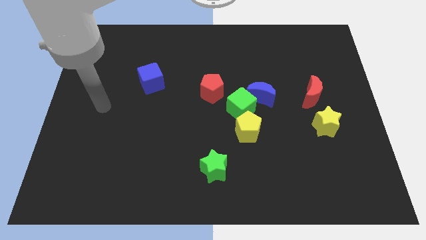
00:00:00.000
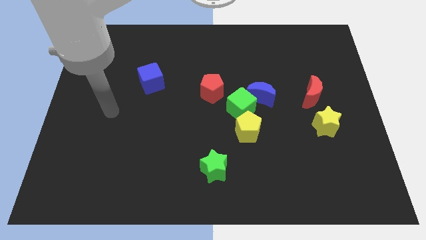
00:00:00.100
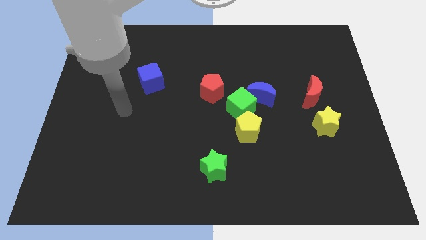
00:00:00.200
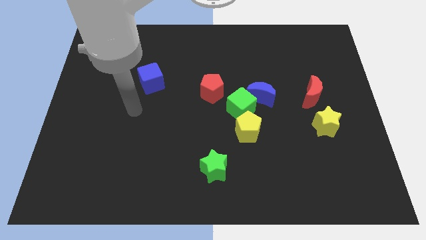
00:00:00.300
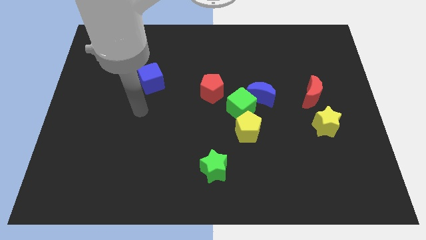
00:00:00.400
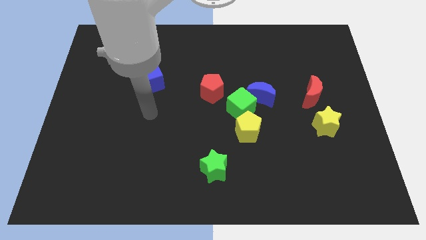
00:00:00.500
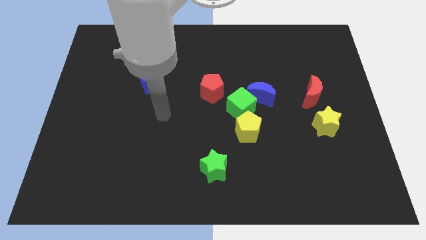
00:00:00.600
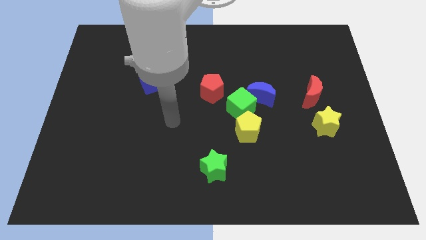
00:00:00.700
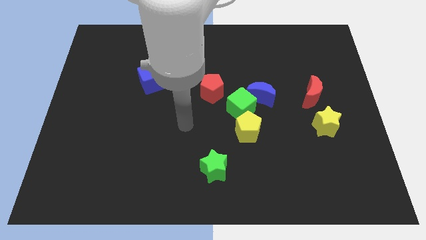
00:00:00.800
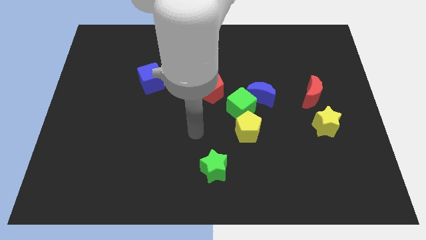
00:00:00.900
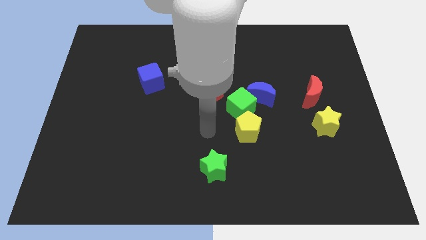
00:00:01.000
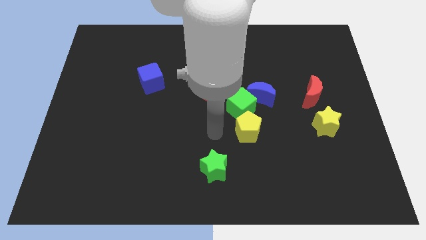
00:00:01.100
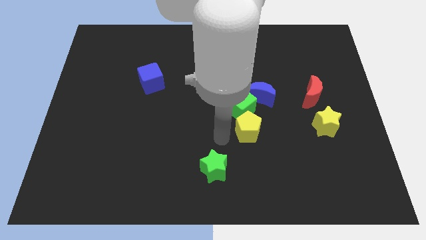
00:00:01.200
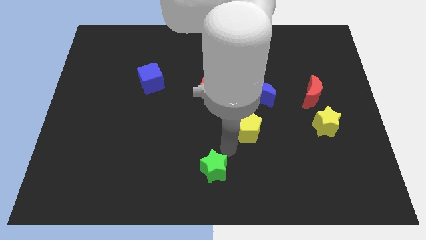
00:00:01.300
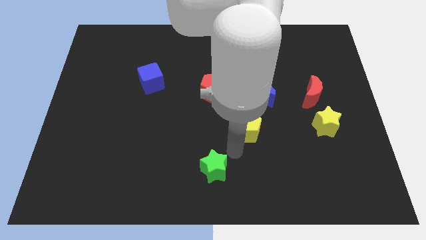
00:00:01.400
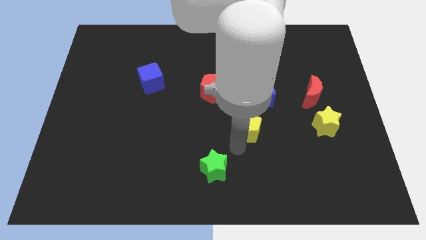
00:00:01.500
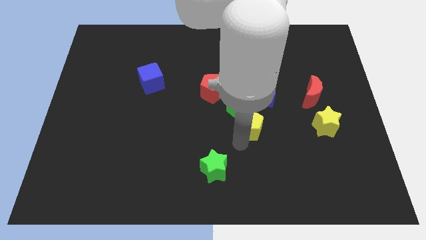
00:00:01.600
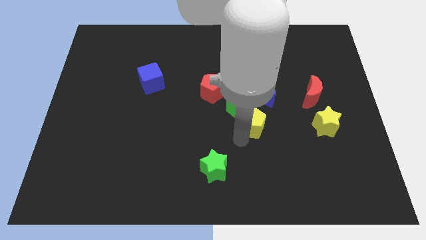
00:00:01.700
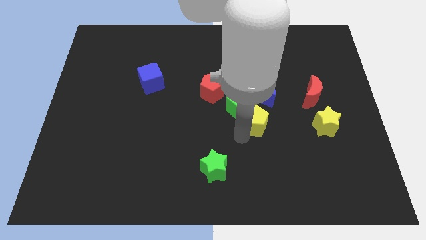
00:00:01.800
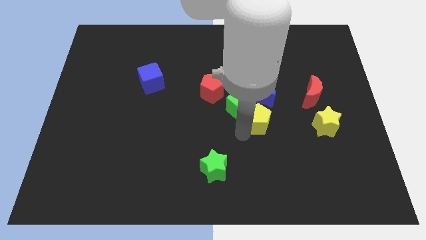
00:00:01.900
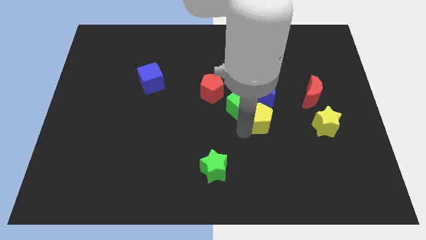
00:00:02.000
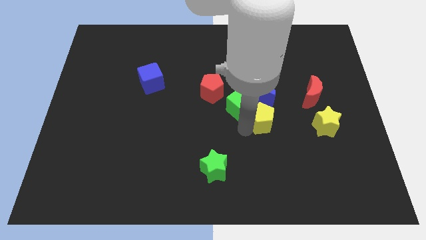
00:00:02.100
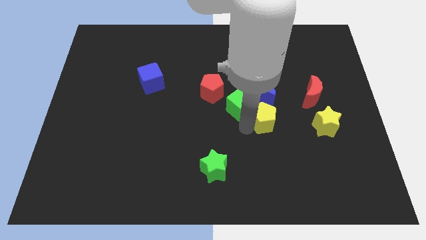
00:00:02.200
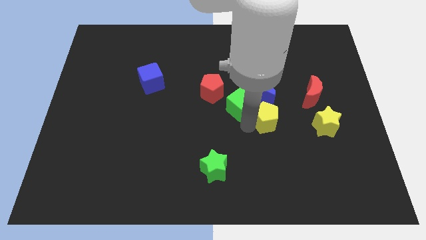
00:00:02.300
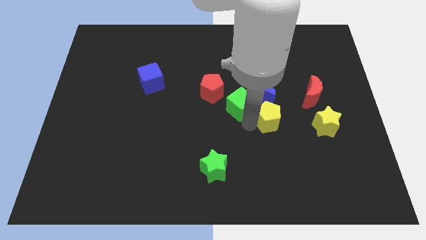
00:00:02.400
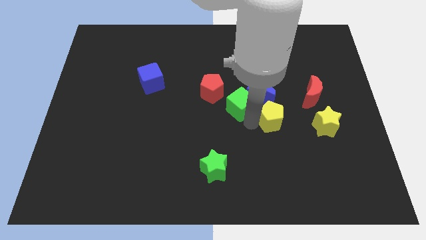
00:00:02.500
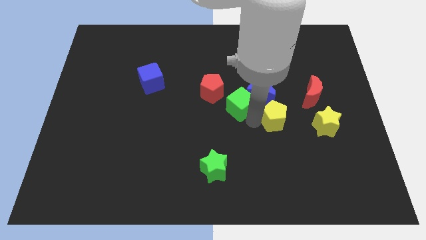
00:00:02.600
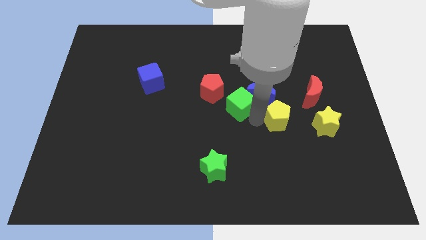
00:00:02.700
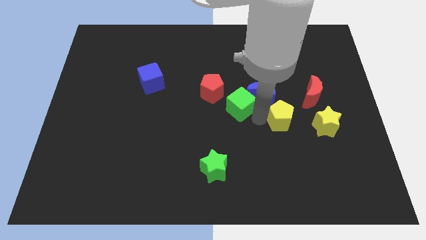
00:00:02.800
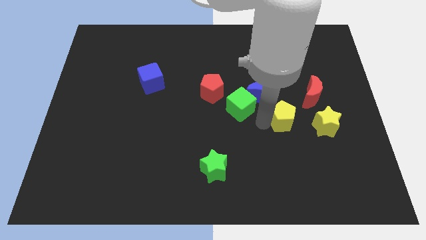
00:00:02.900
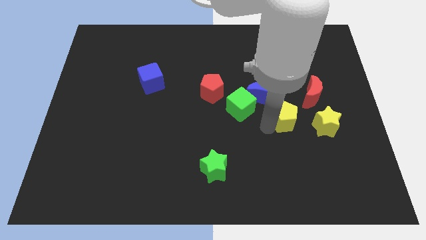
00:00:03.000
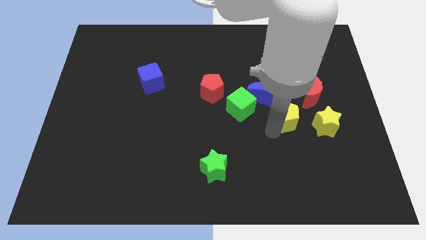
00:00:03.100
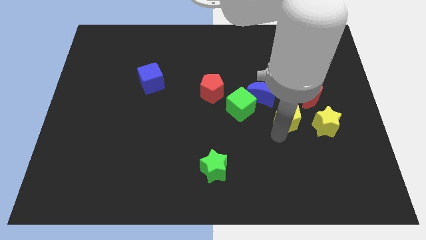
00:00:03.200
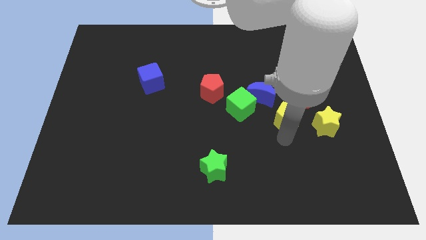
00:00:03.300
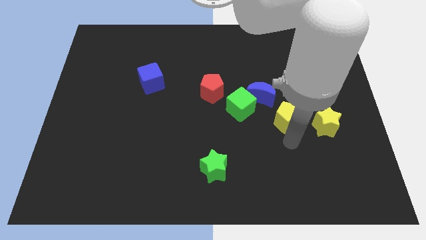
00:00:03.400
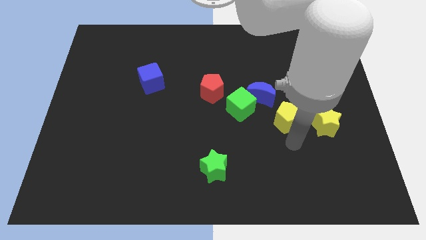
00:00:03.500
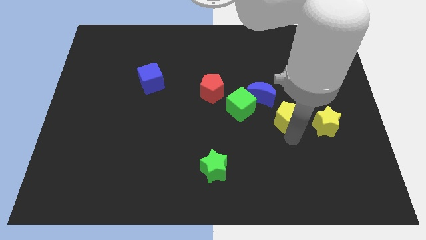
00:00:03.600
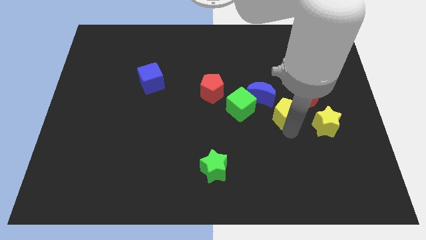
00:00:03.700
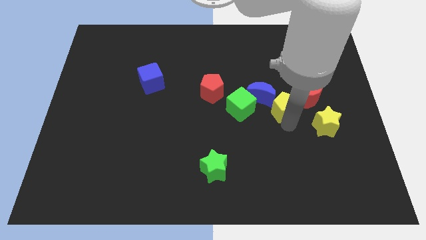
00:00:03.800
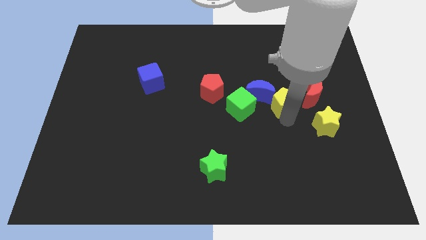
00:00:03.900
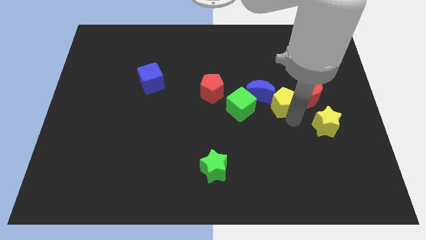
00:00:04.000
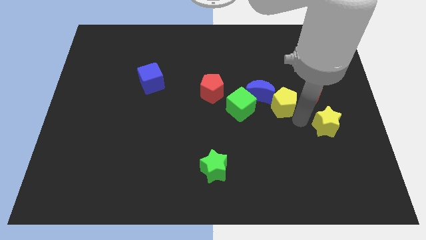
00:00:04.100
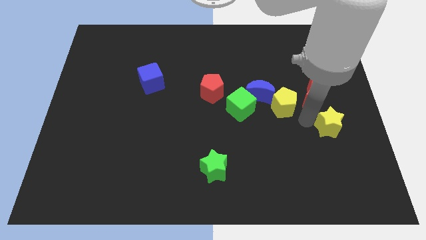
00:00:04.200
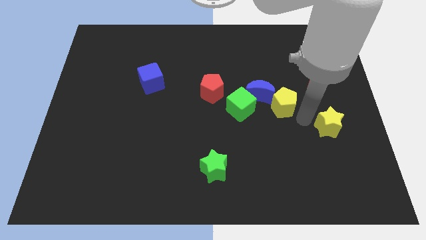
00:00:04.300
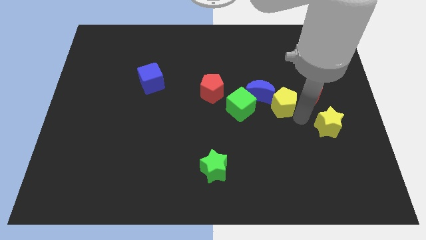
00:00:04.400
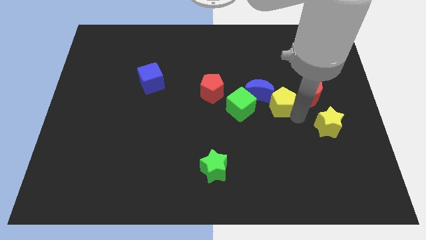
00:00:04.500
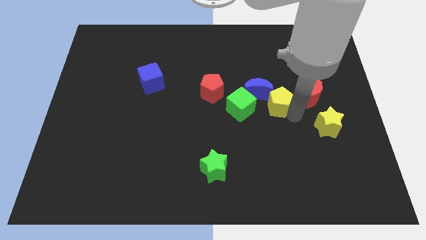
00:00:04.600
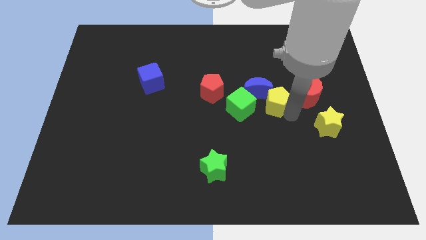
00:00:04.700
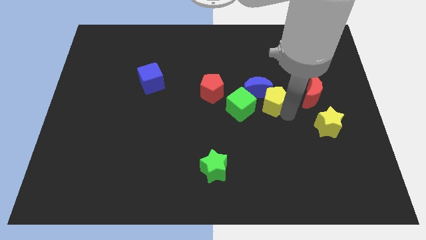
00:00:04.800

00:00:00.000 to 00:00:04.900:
push the yellow pentagon diagonally up and to the right of the green cube

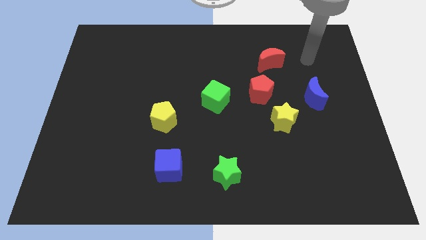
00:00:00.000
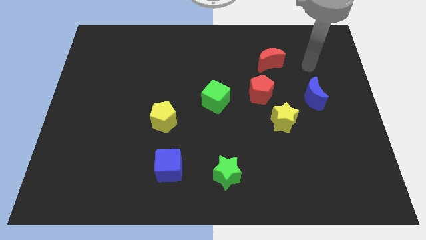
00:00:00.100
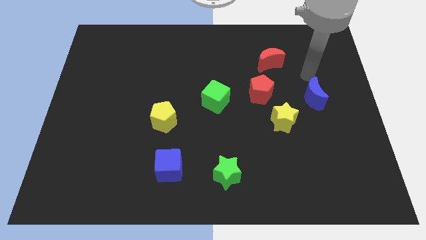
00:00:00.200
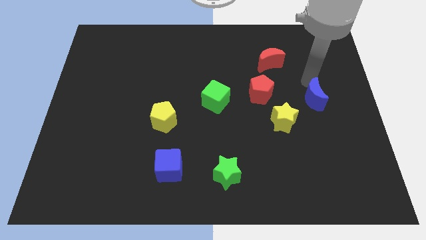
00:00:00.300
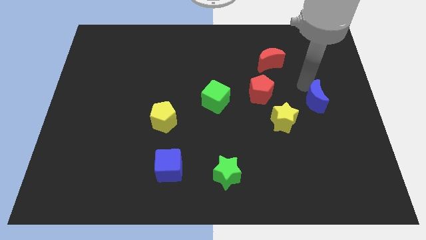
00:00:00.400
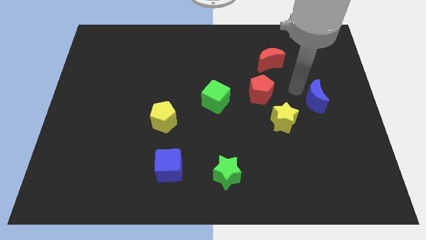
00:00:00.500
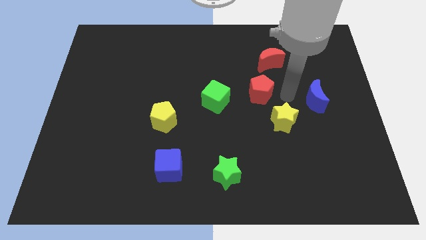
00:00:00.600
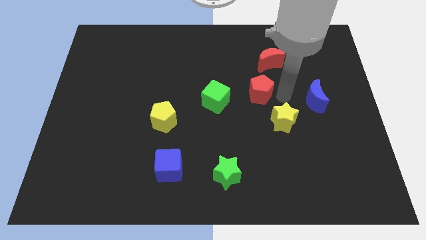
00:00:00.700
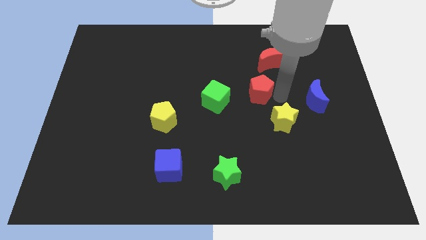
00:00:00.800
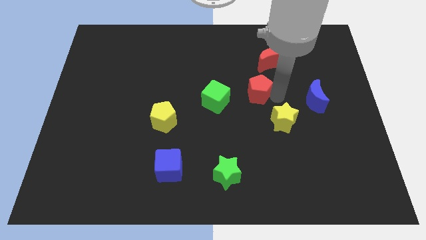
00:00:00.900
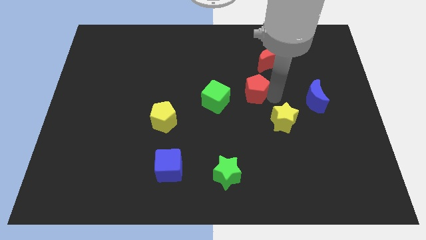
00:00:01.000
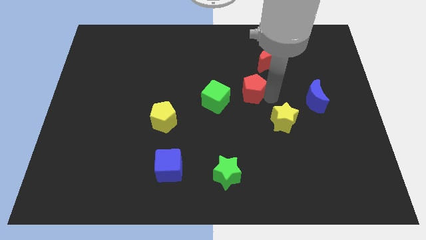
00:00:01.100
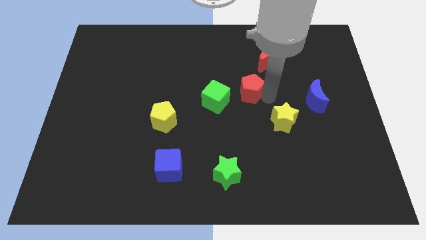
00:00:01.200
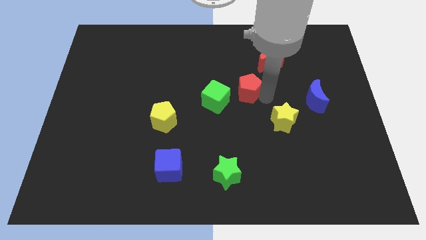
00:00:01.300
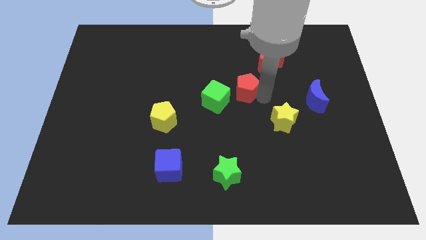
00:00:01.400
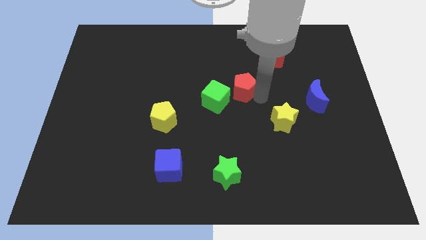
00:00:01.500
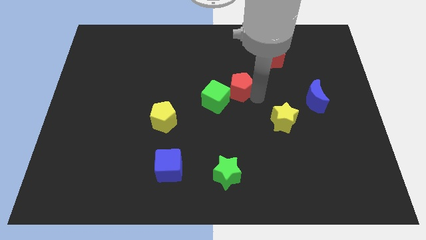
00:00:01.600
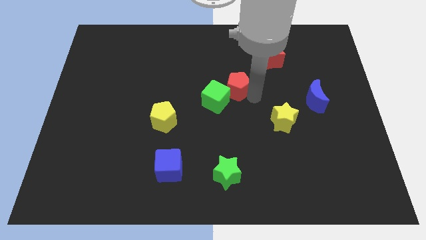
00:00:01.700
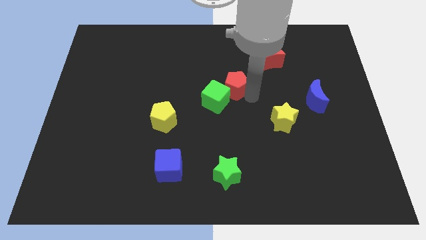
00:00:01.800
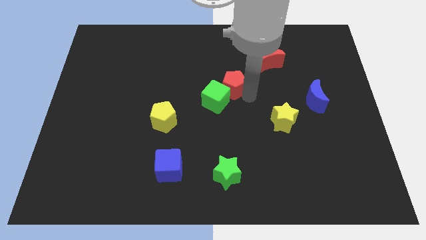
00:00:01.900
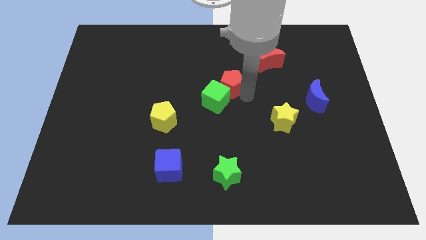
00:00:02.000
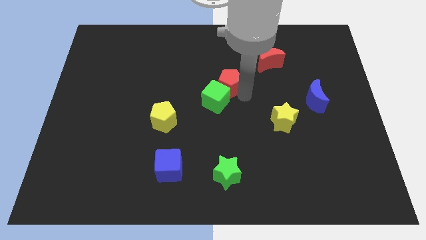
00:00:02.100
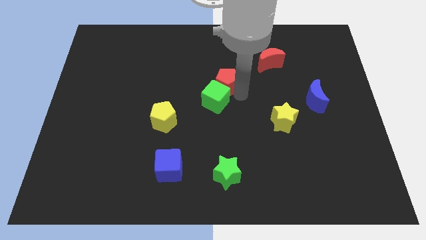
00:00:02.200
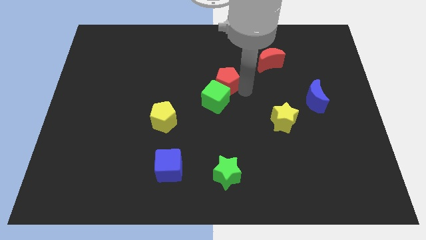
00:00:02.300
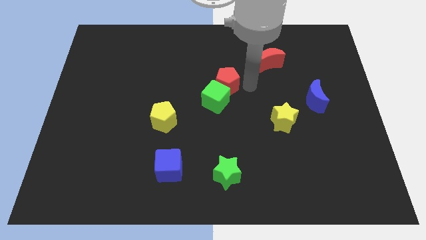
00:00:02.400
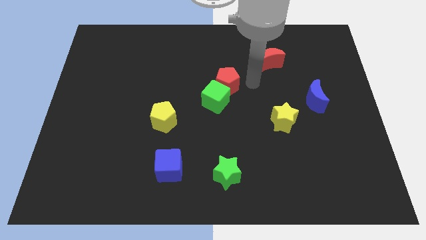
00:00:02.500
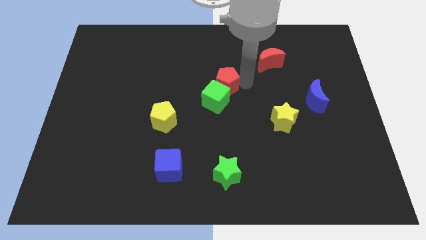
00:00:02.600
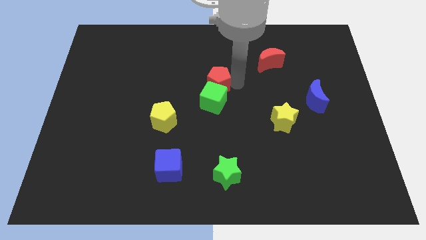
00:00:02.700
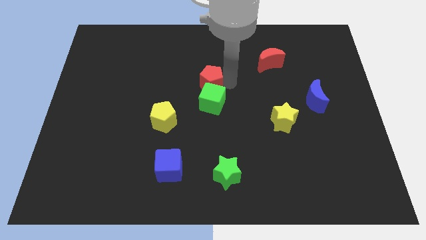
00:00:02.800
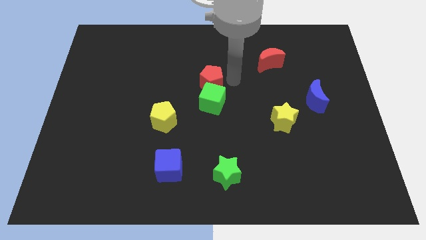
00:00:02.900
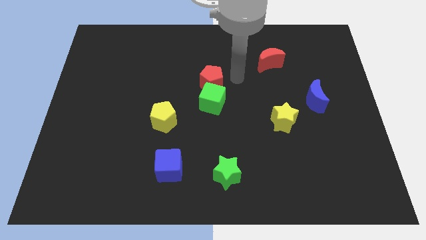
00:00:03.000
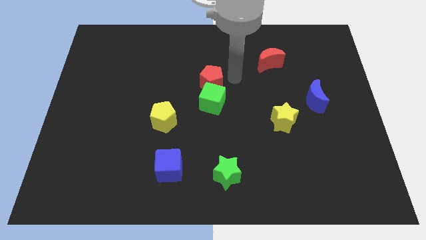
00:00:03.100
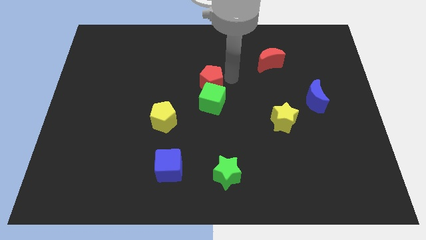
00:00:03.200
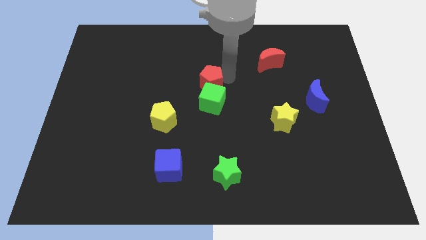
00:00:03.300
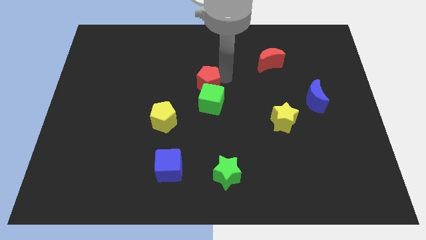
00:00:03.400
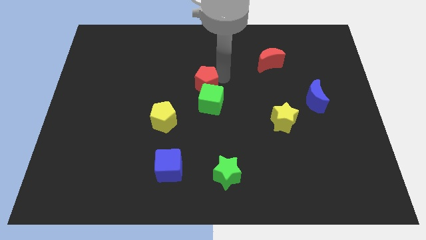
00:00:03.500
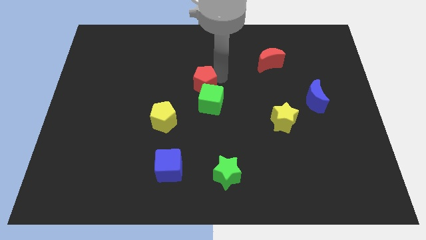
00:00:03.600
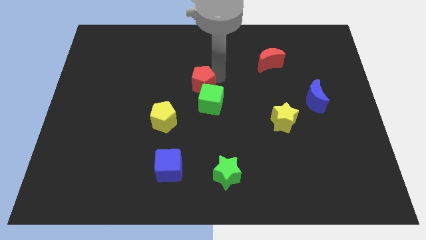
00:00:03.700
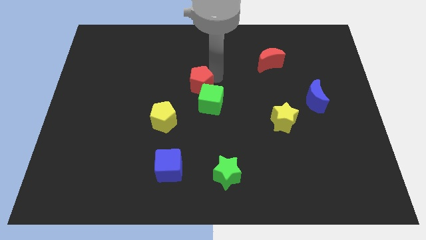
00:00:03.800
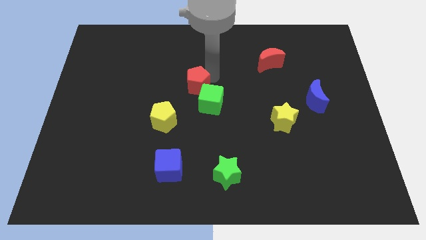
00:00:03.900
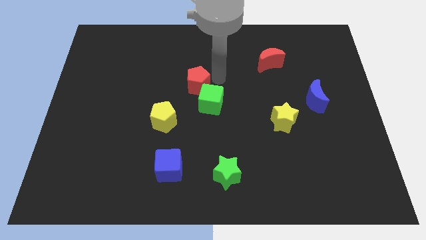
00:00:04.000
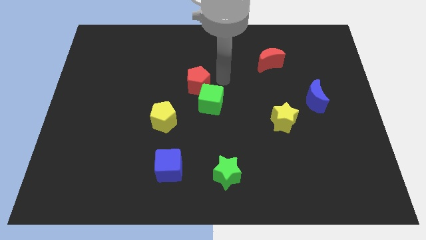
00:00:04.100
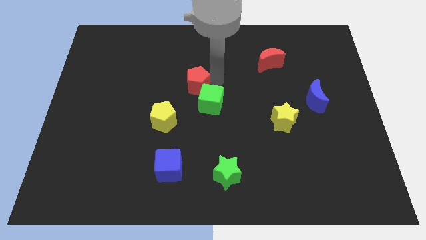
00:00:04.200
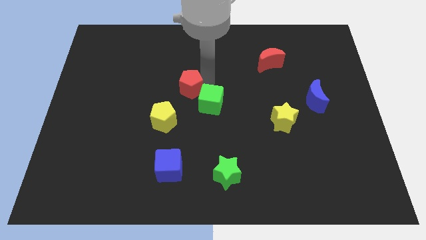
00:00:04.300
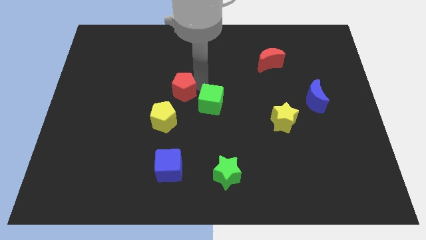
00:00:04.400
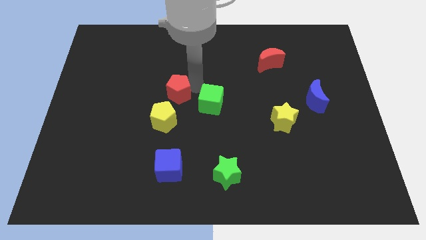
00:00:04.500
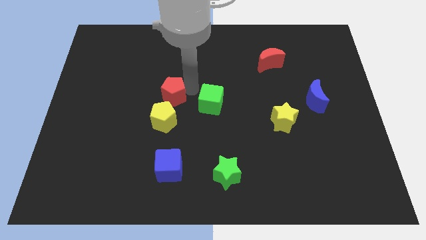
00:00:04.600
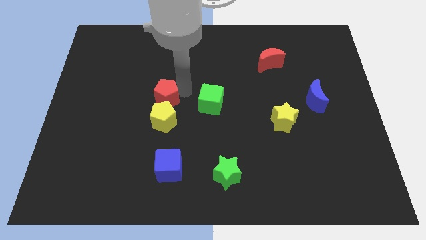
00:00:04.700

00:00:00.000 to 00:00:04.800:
push the red pentagon diagonally up and to the left of the yellow pentagon
